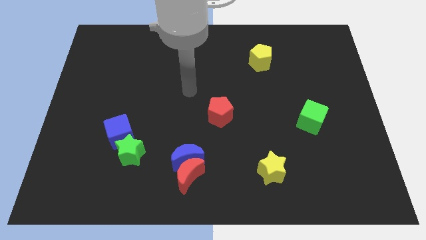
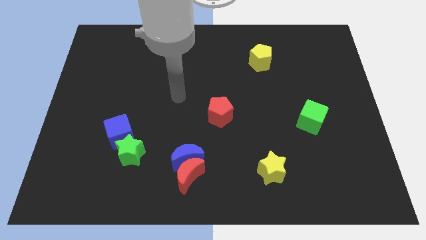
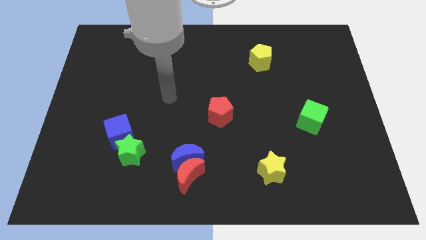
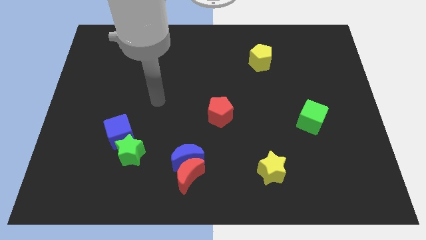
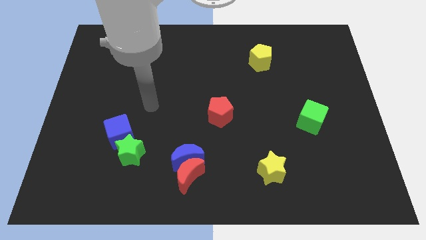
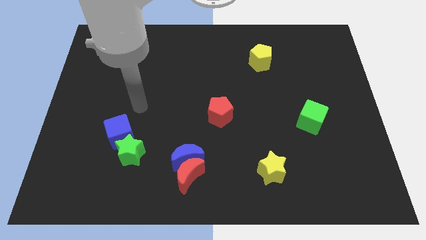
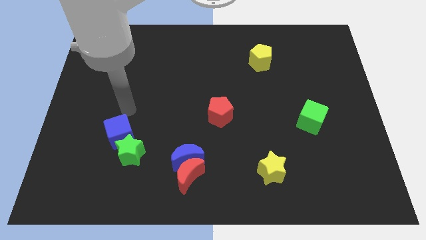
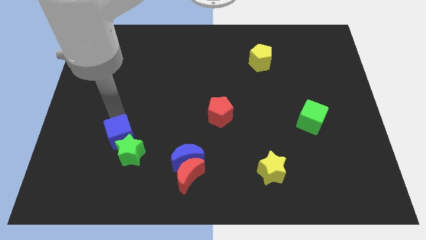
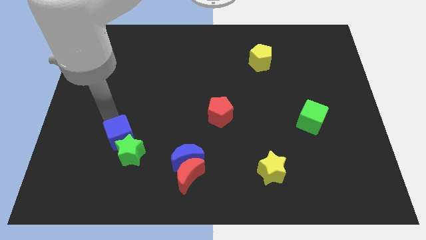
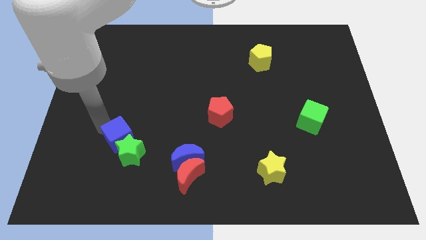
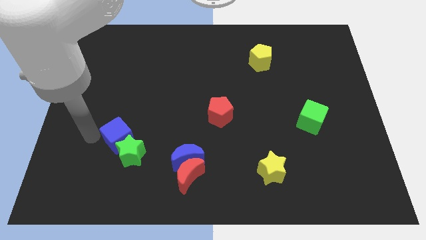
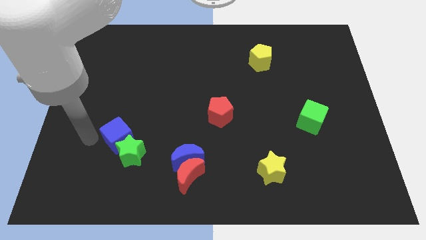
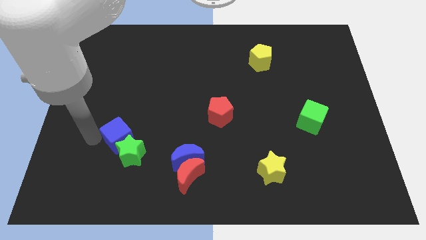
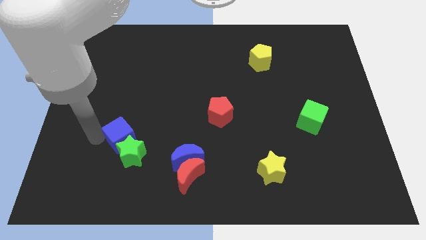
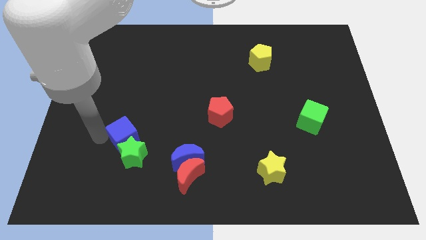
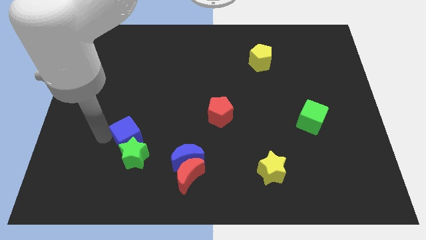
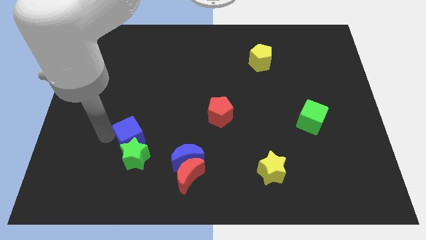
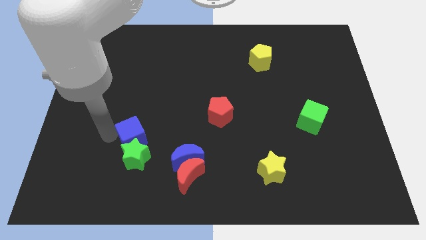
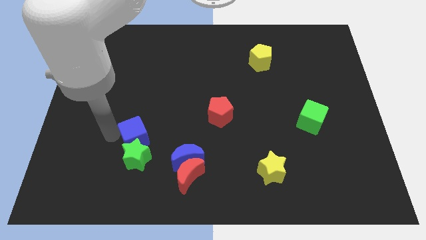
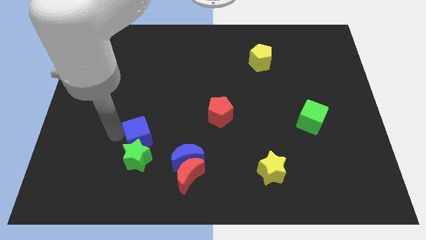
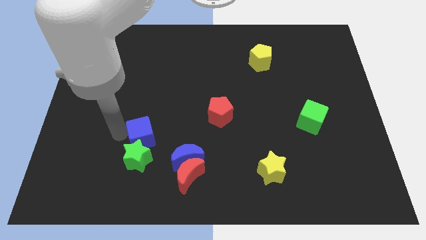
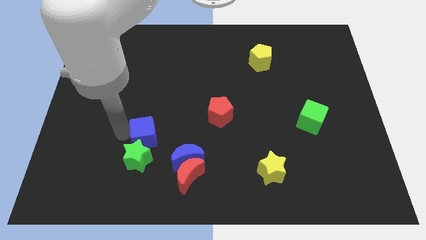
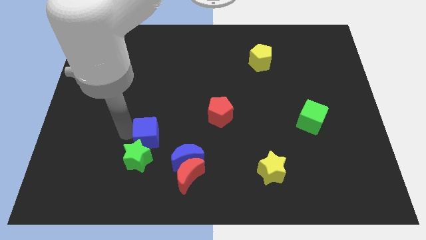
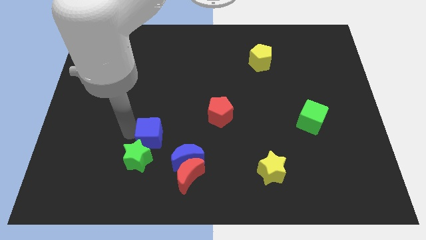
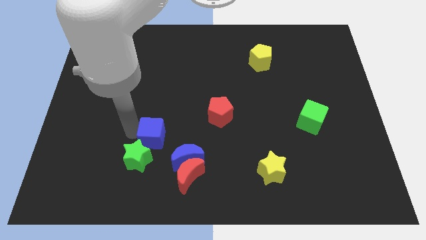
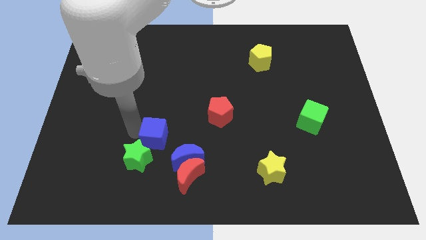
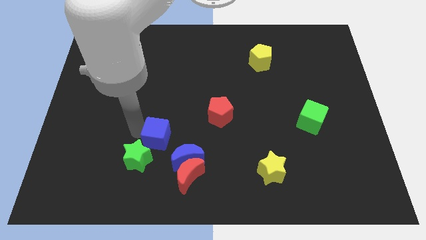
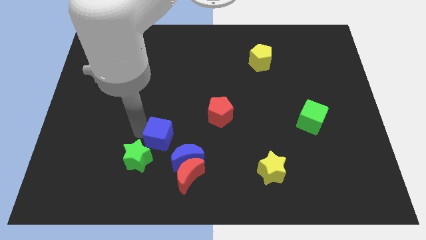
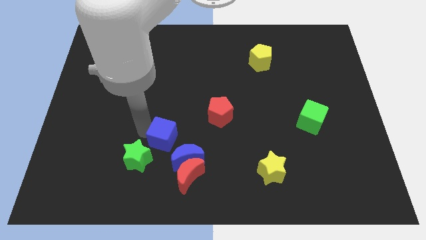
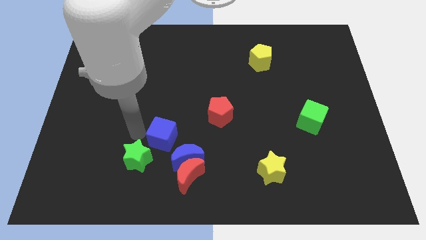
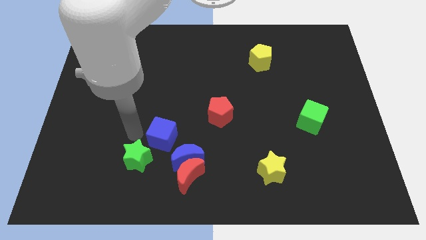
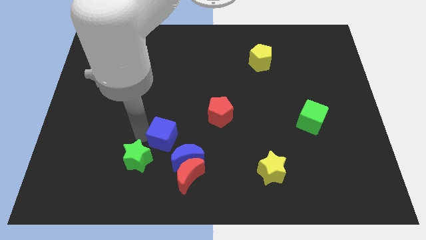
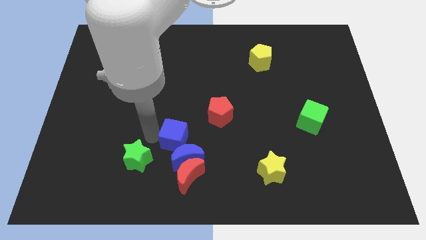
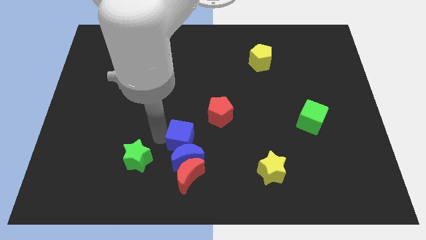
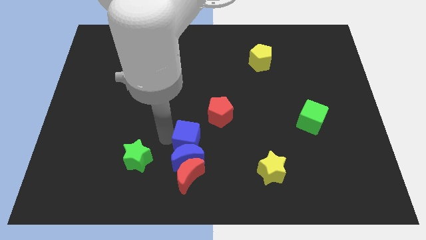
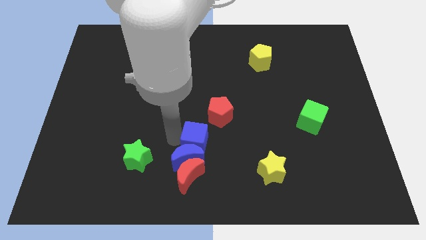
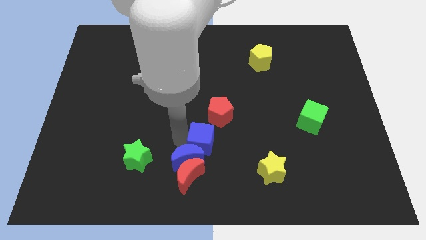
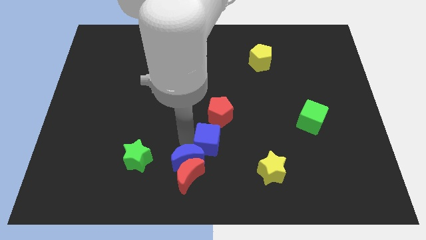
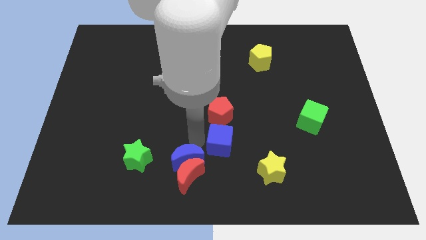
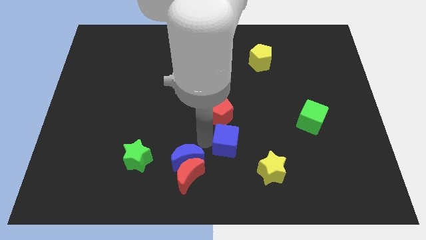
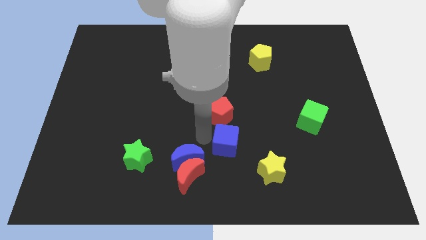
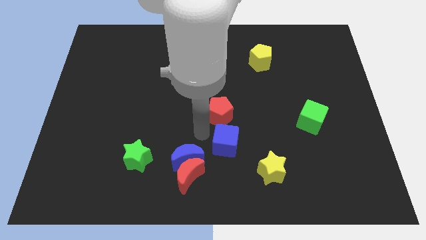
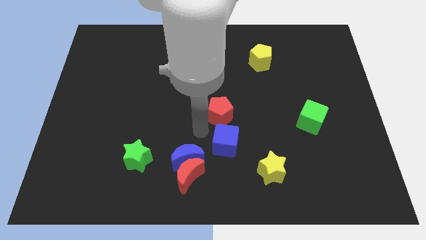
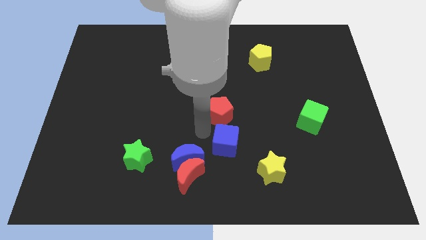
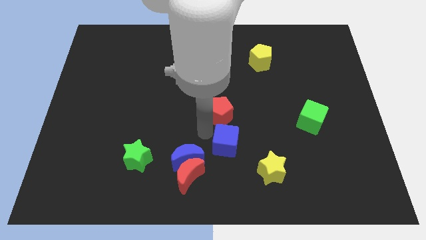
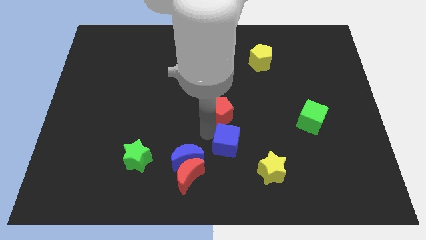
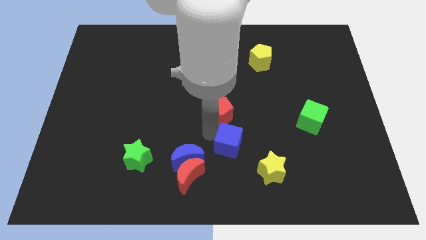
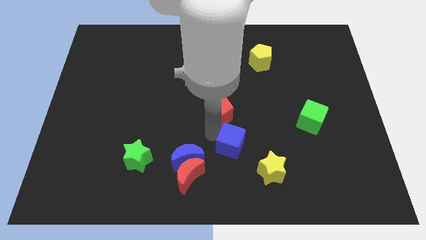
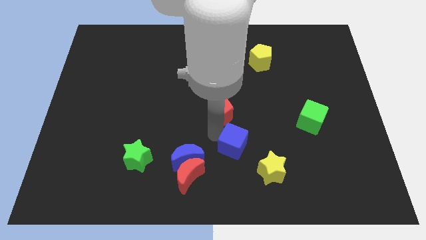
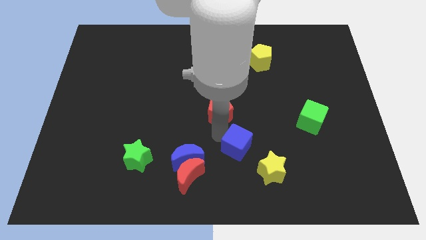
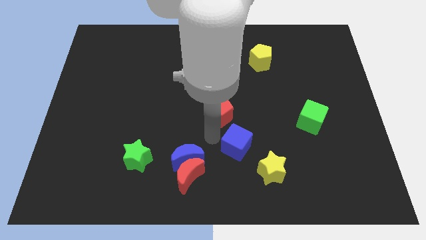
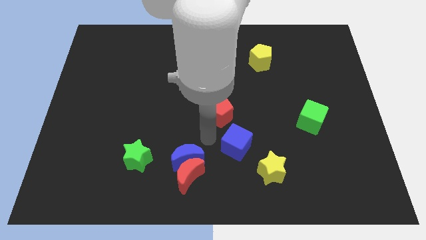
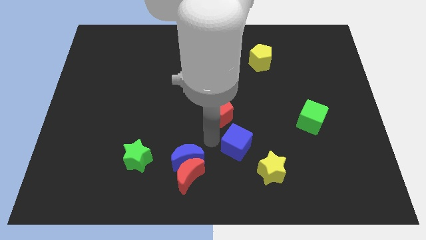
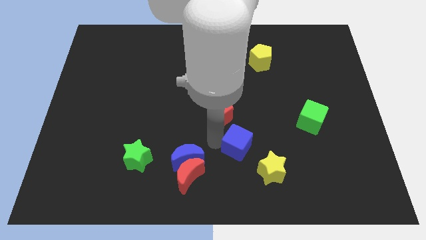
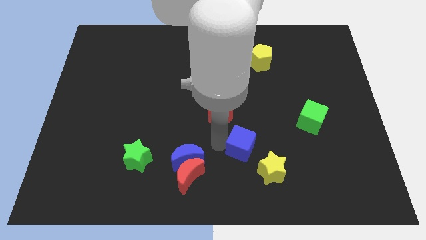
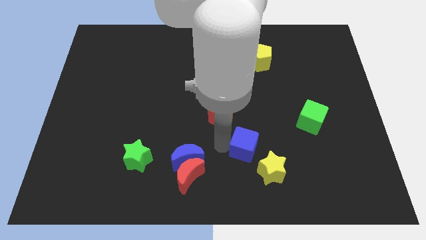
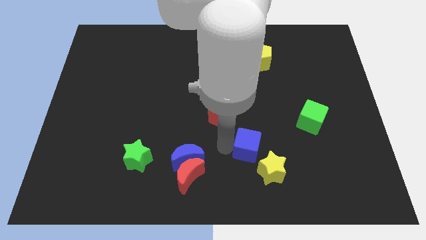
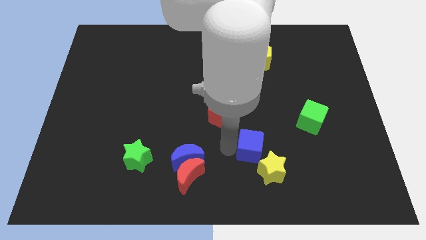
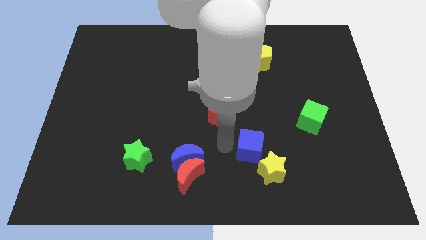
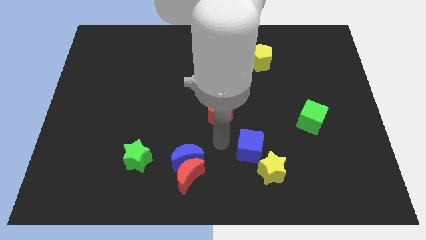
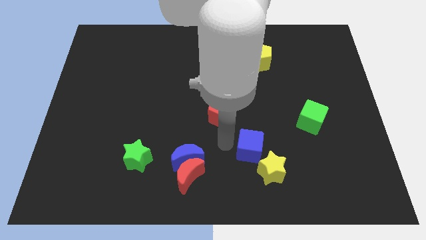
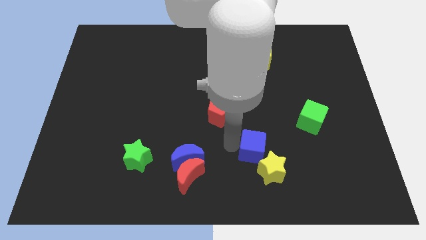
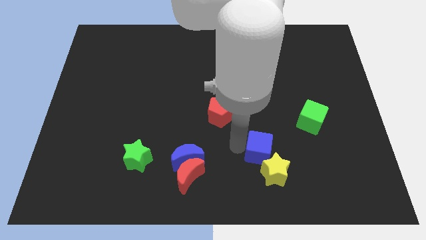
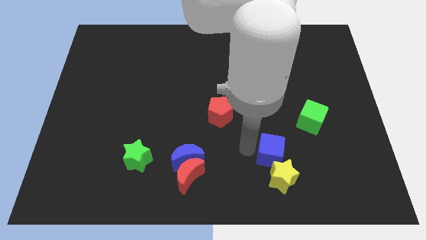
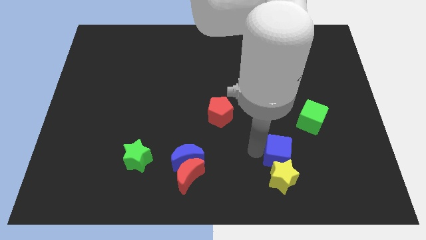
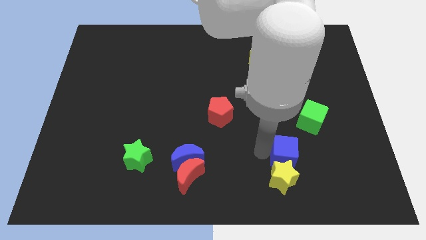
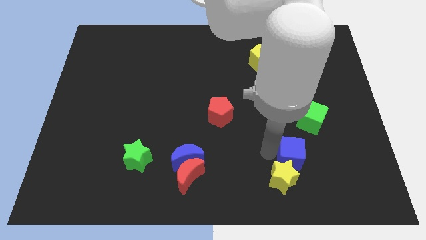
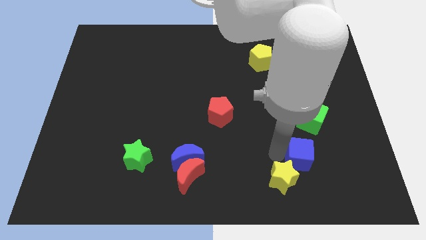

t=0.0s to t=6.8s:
put the blue cube to the bottom of the green cube

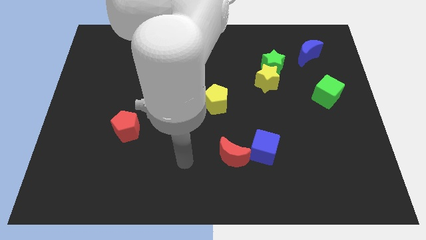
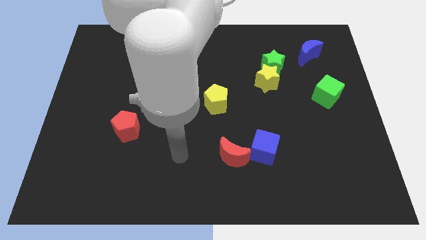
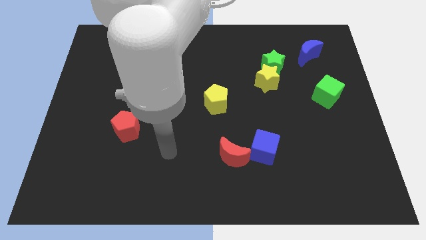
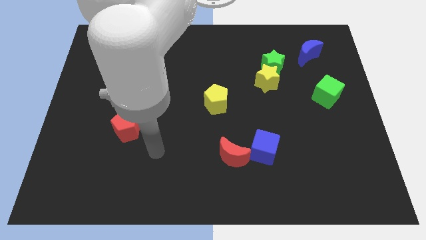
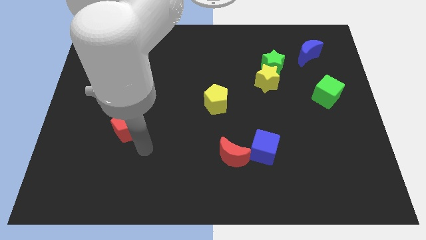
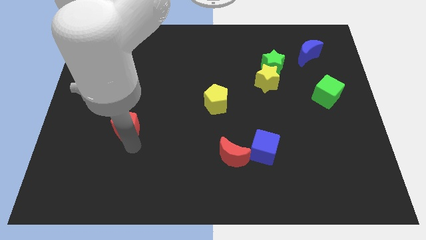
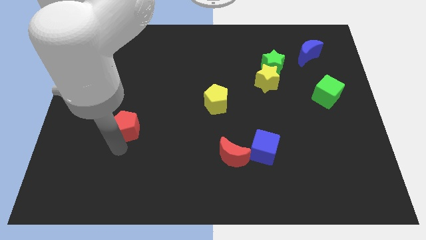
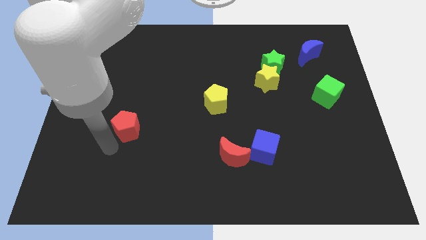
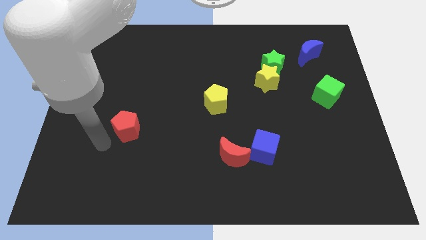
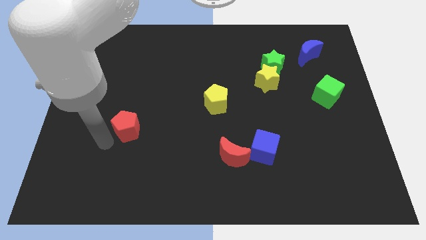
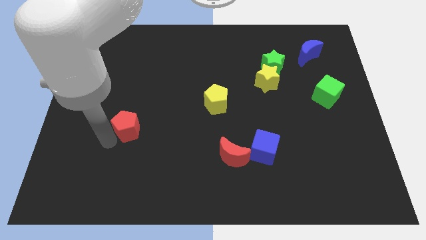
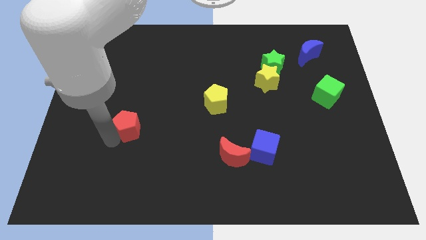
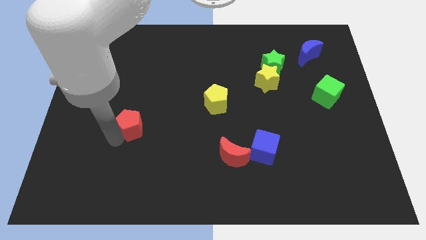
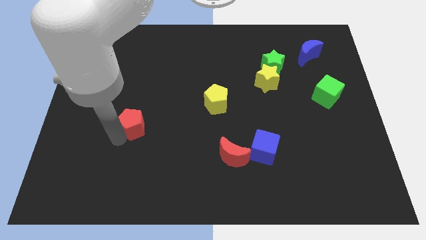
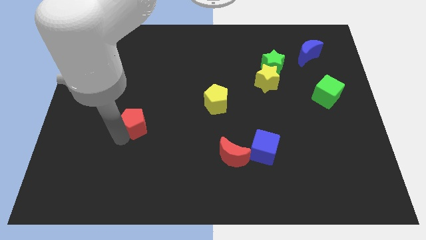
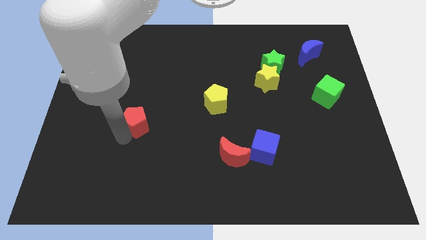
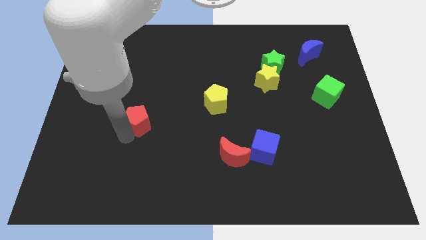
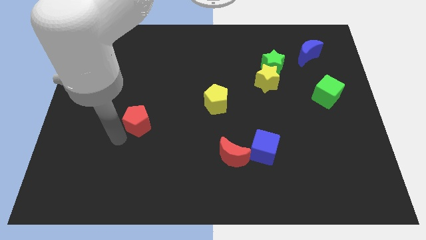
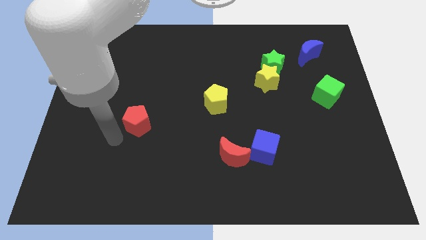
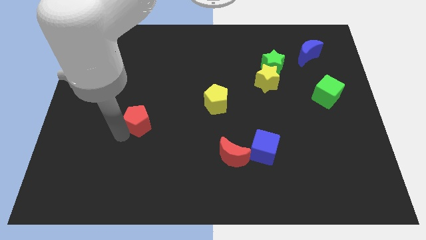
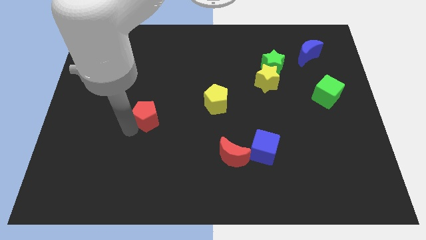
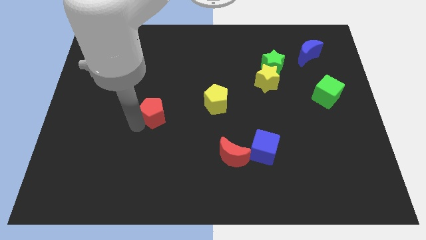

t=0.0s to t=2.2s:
slide the red pentagon to the left of the yellow pentagon
